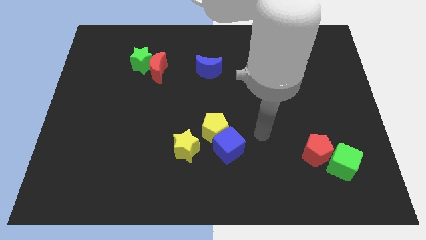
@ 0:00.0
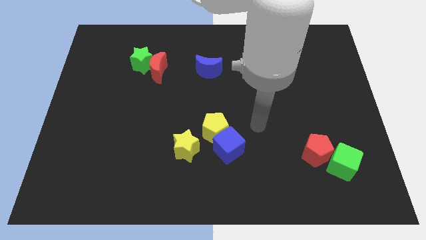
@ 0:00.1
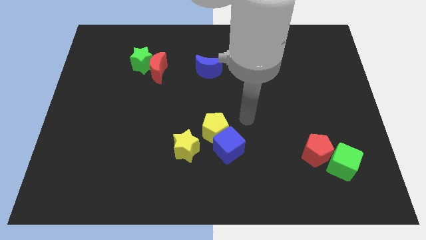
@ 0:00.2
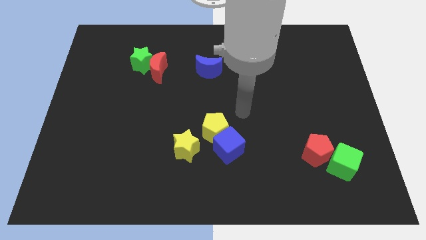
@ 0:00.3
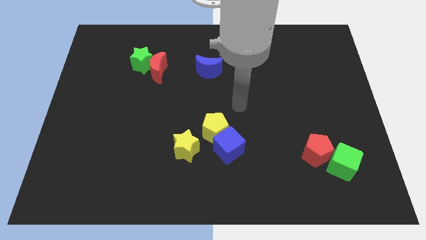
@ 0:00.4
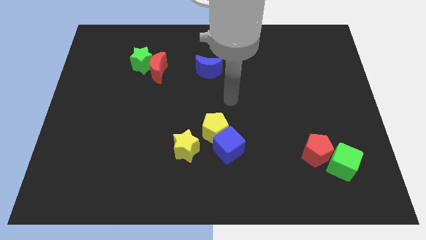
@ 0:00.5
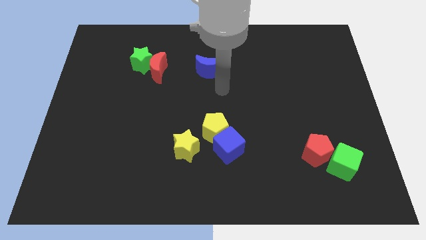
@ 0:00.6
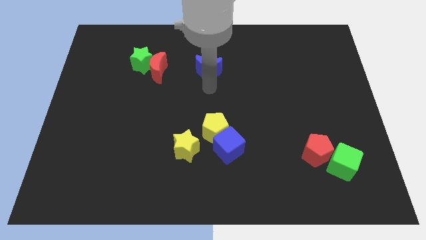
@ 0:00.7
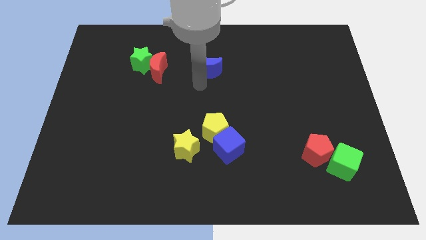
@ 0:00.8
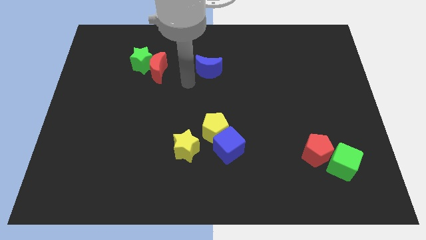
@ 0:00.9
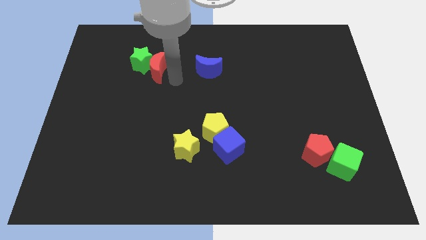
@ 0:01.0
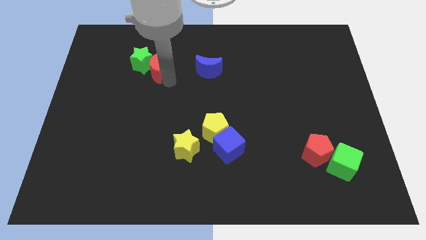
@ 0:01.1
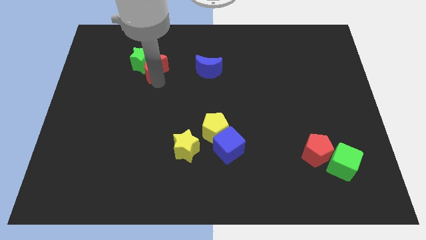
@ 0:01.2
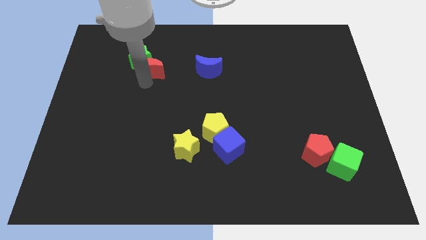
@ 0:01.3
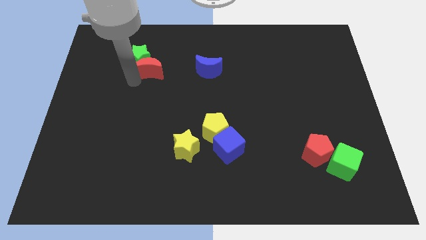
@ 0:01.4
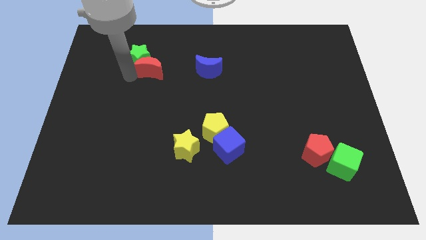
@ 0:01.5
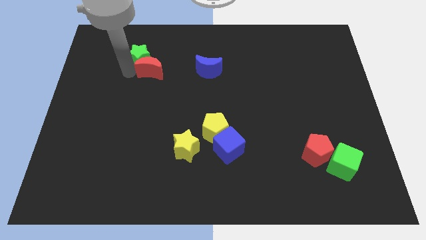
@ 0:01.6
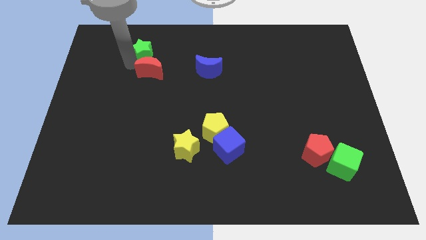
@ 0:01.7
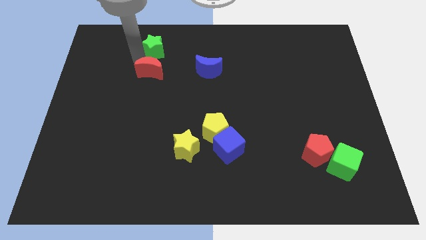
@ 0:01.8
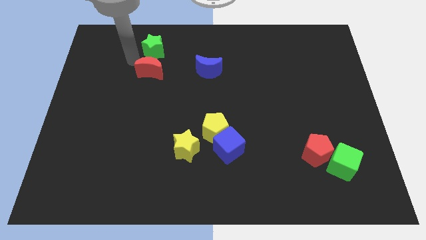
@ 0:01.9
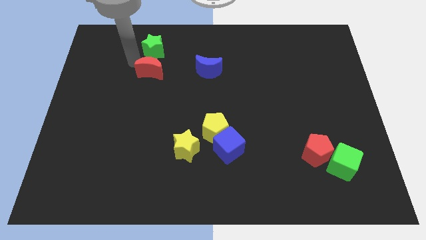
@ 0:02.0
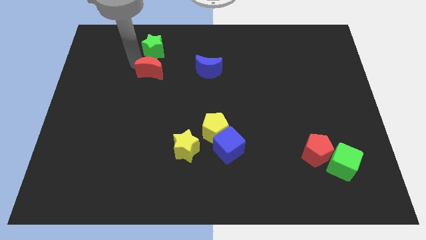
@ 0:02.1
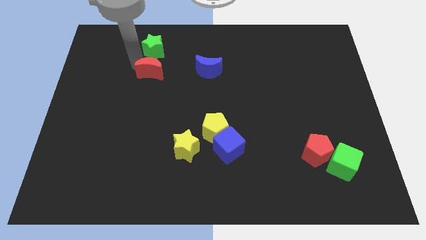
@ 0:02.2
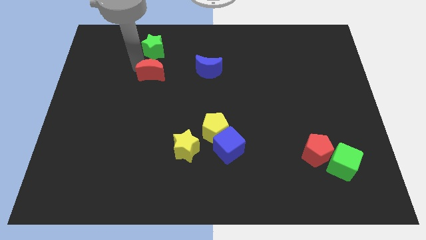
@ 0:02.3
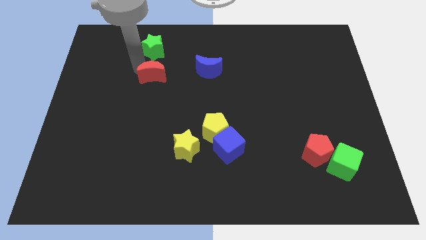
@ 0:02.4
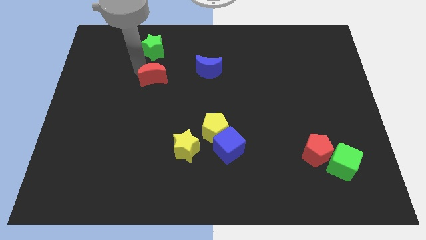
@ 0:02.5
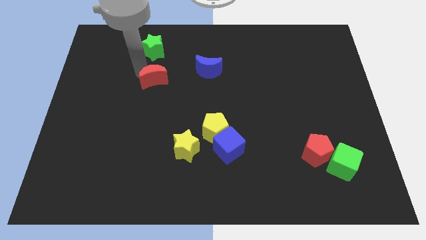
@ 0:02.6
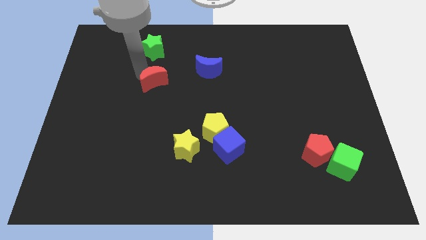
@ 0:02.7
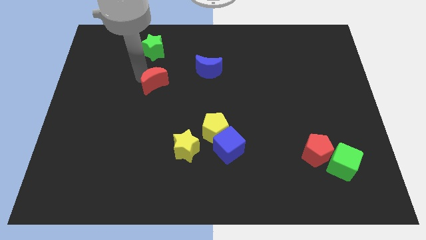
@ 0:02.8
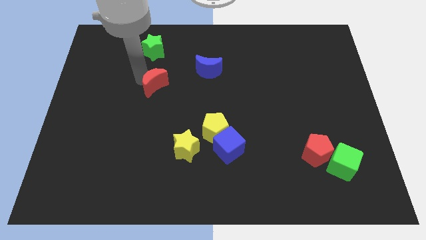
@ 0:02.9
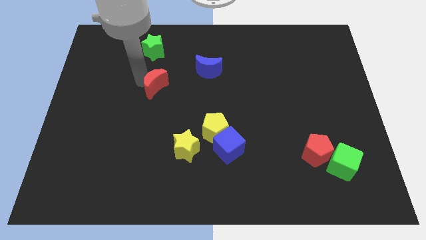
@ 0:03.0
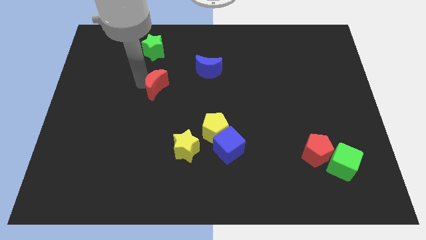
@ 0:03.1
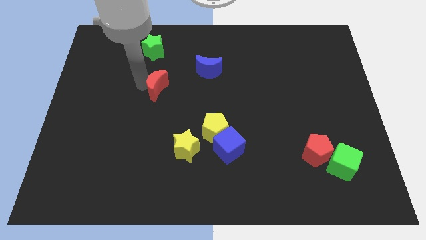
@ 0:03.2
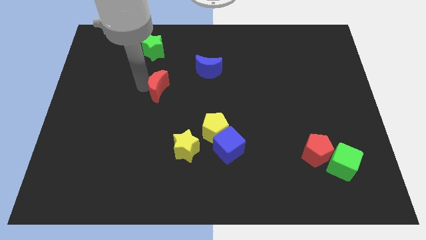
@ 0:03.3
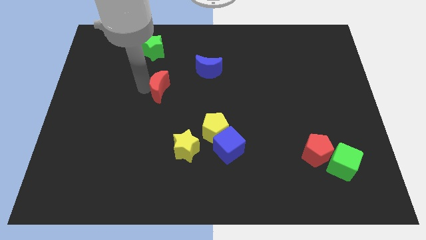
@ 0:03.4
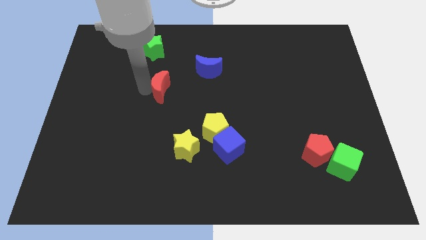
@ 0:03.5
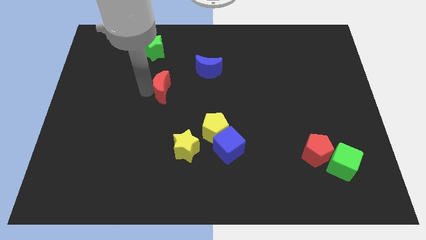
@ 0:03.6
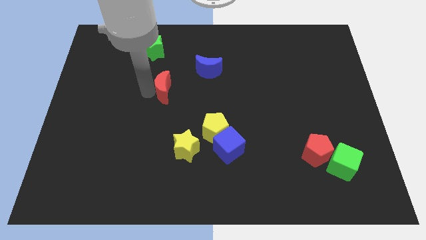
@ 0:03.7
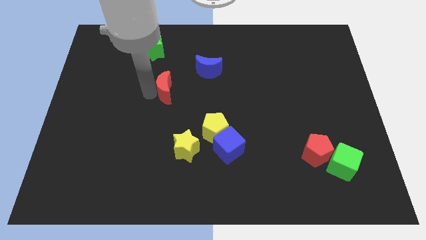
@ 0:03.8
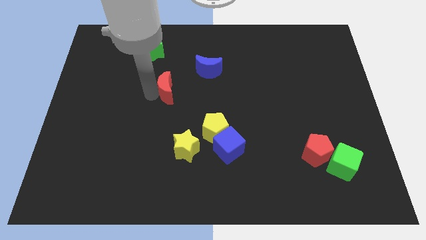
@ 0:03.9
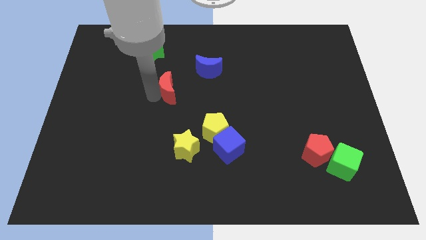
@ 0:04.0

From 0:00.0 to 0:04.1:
push the red moon a little bit downwards and right diagonally

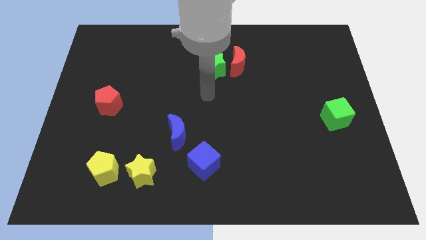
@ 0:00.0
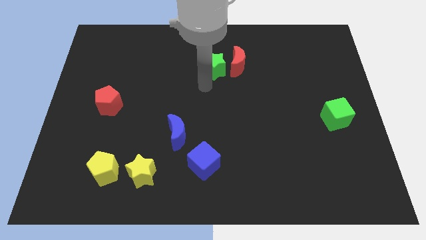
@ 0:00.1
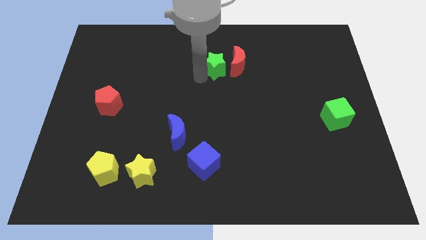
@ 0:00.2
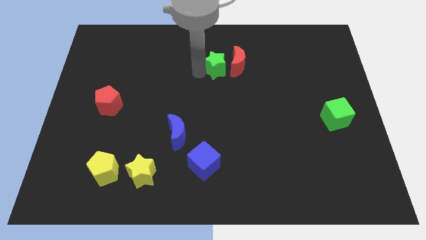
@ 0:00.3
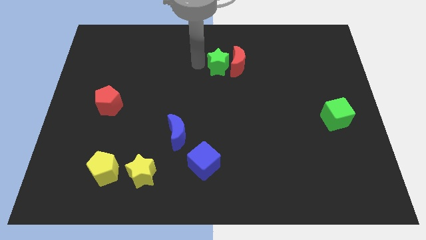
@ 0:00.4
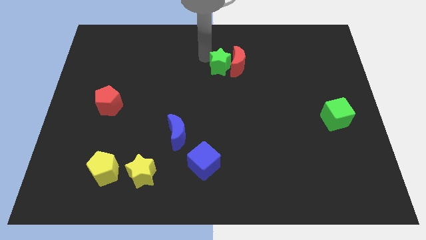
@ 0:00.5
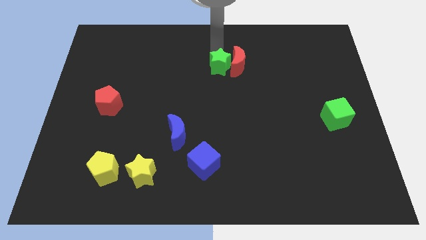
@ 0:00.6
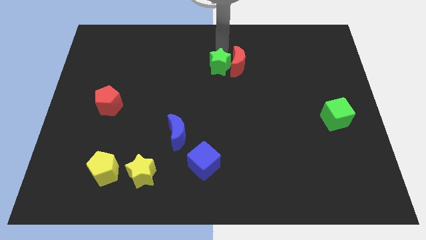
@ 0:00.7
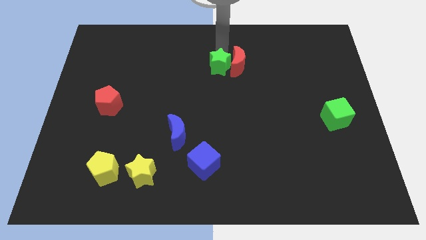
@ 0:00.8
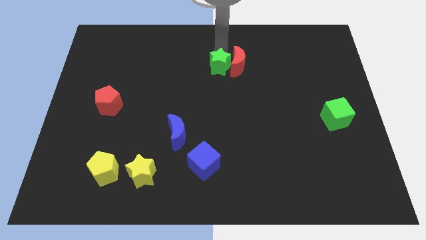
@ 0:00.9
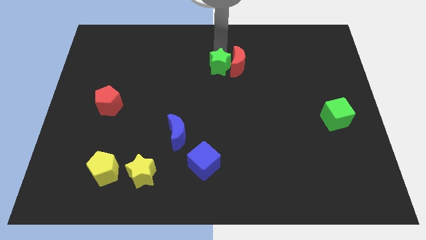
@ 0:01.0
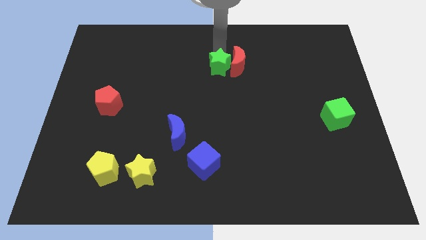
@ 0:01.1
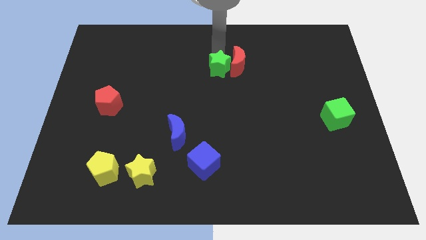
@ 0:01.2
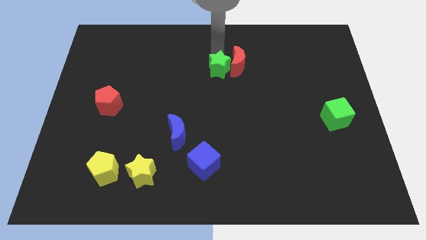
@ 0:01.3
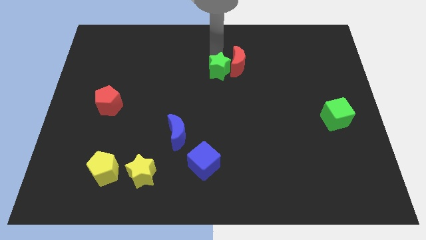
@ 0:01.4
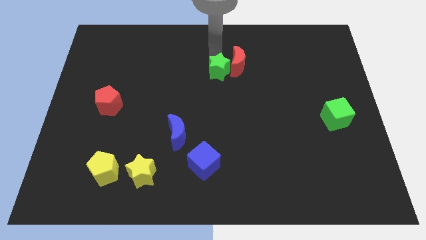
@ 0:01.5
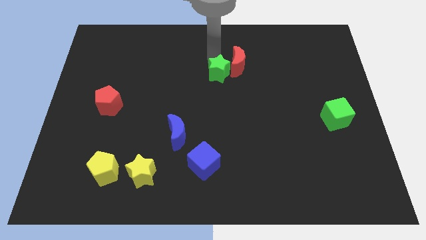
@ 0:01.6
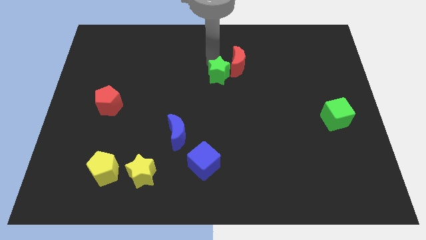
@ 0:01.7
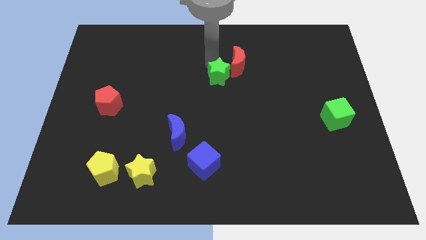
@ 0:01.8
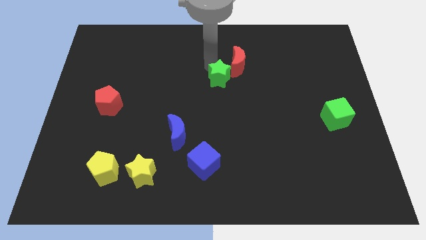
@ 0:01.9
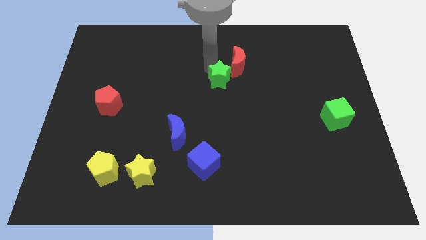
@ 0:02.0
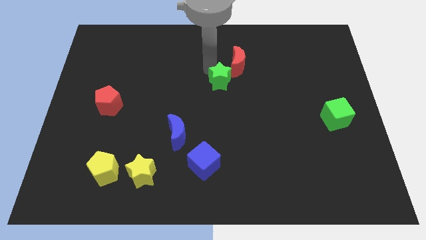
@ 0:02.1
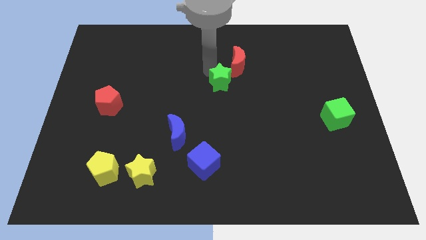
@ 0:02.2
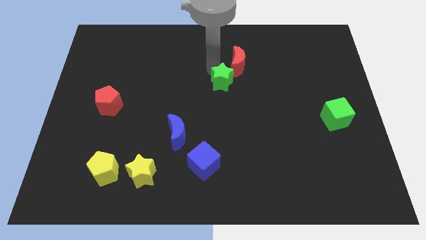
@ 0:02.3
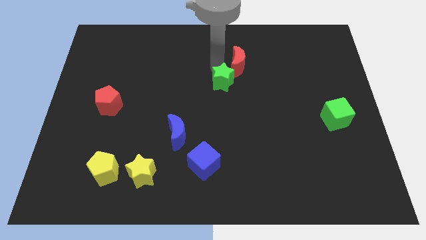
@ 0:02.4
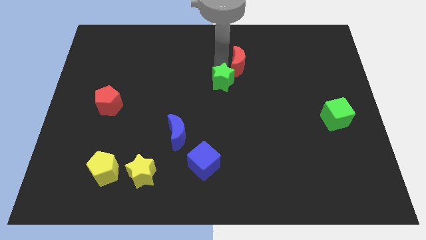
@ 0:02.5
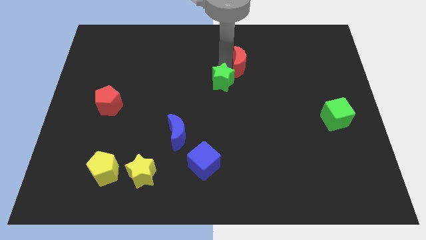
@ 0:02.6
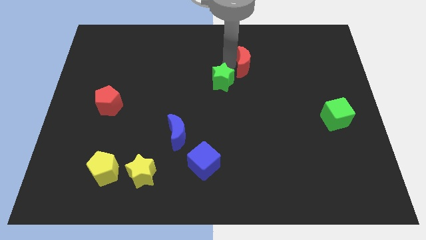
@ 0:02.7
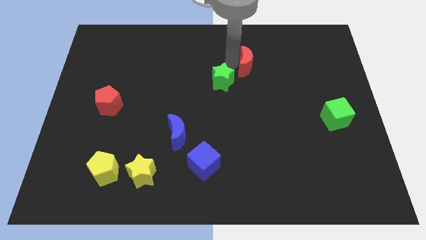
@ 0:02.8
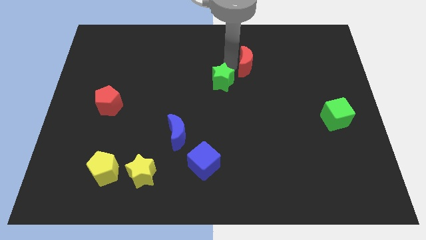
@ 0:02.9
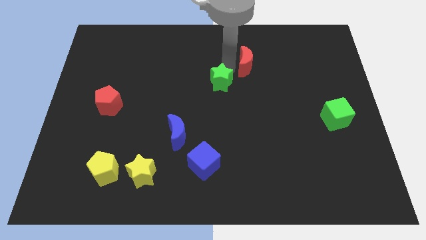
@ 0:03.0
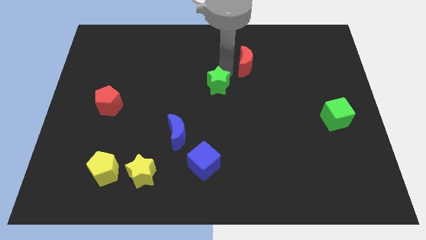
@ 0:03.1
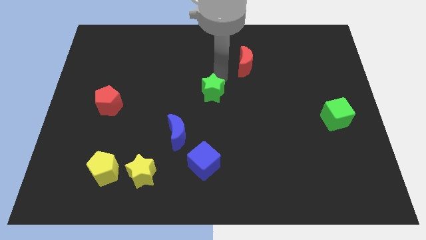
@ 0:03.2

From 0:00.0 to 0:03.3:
move the green star a little down

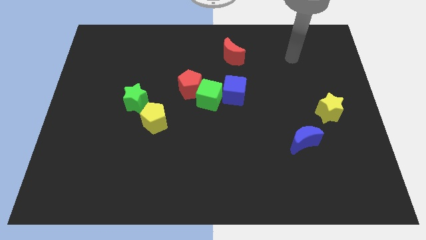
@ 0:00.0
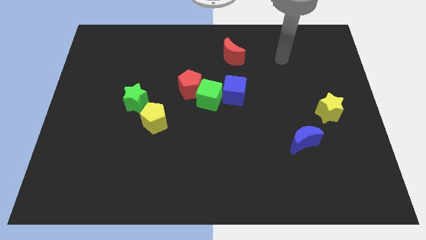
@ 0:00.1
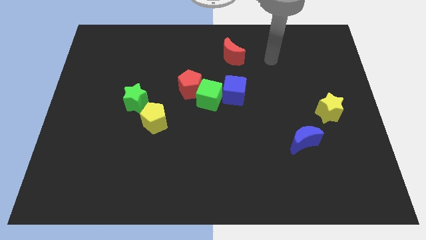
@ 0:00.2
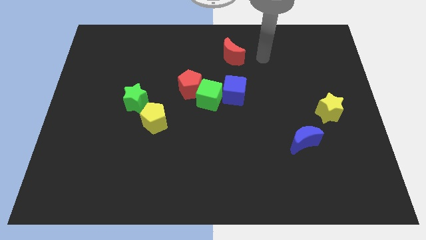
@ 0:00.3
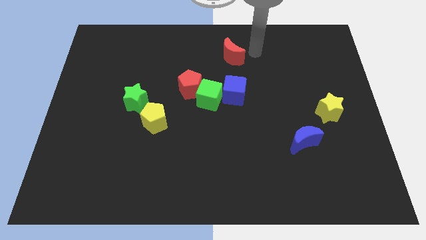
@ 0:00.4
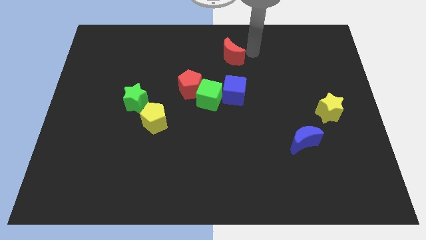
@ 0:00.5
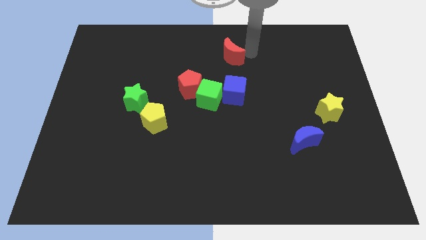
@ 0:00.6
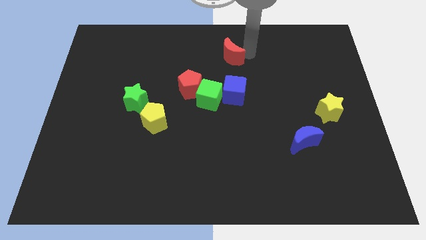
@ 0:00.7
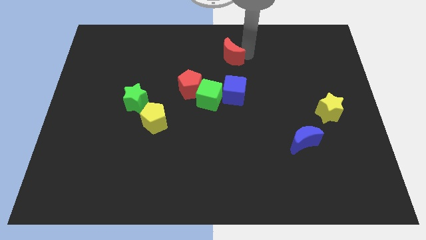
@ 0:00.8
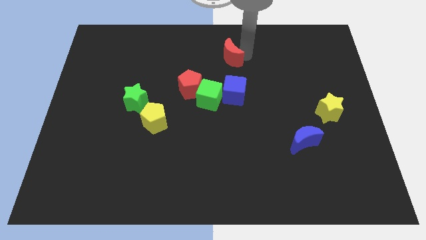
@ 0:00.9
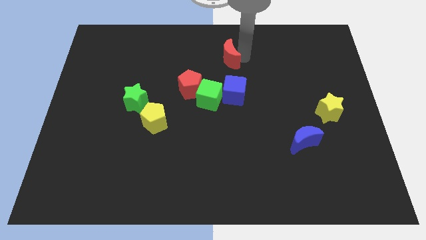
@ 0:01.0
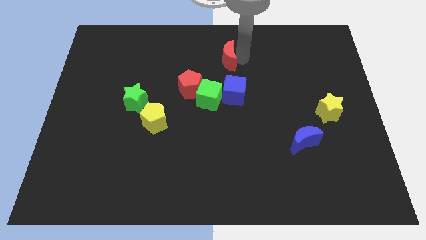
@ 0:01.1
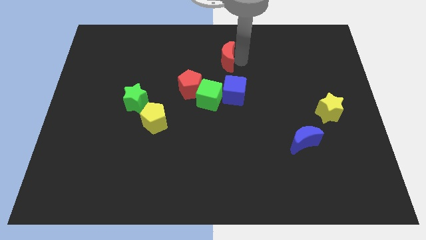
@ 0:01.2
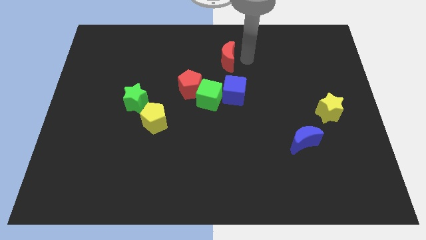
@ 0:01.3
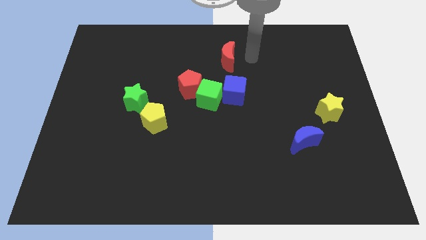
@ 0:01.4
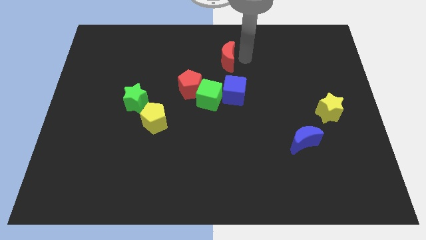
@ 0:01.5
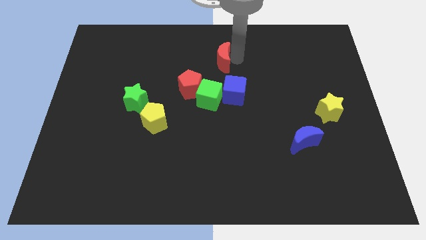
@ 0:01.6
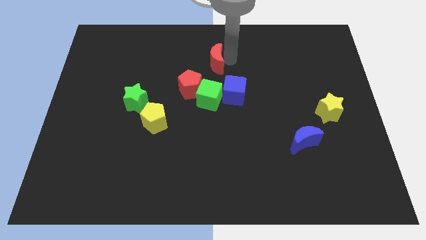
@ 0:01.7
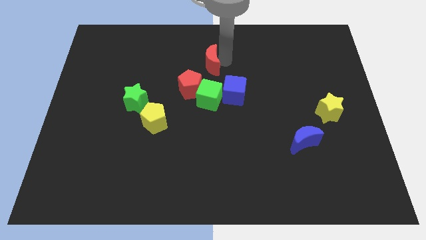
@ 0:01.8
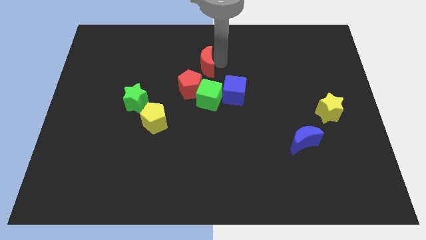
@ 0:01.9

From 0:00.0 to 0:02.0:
push the red moon down and left somewhat
